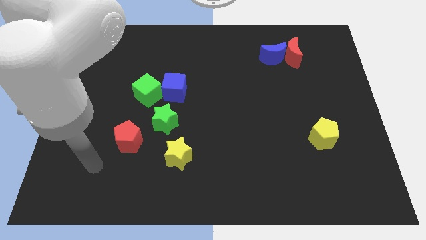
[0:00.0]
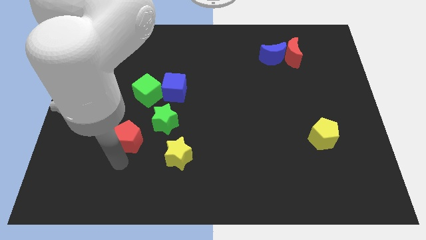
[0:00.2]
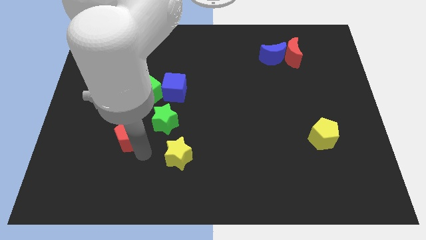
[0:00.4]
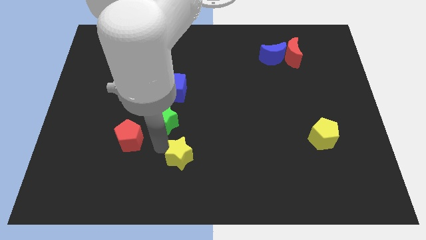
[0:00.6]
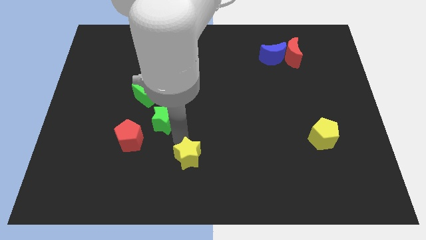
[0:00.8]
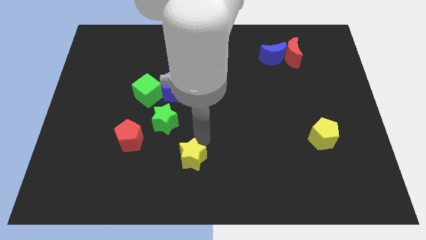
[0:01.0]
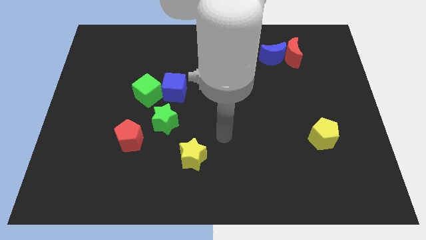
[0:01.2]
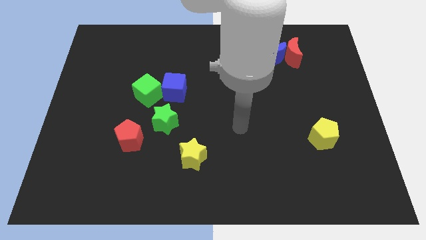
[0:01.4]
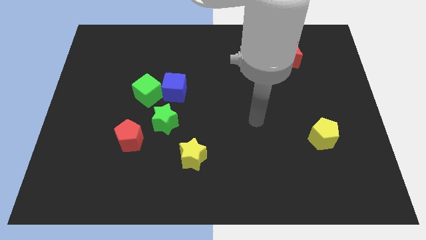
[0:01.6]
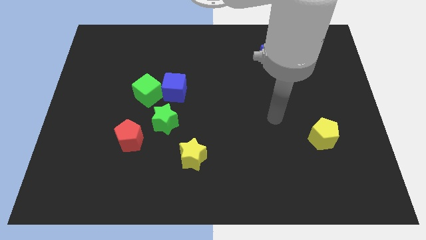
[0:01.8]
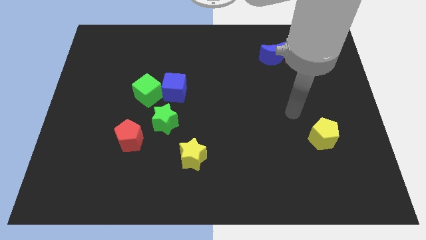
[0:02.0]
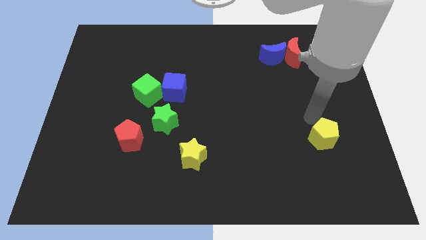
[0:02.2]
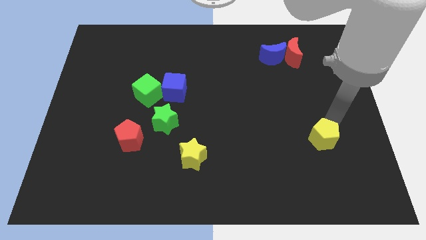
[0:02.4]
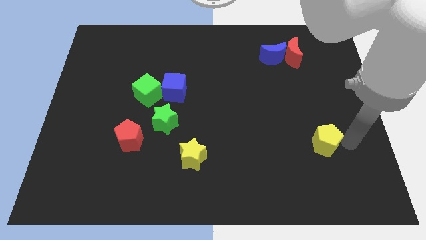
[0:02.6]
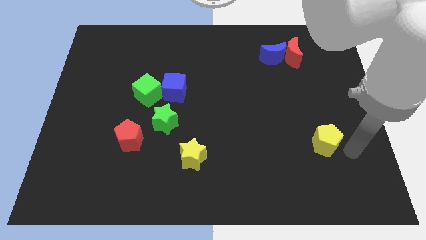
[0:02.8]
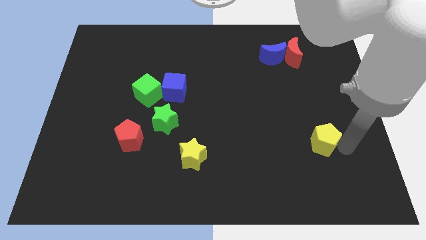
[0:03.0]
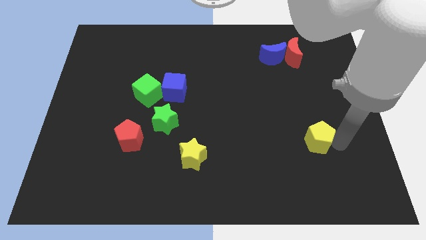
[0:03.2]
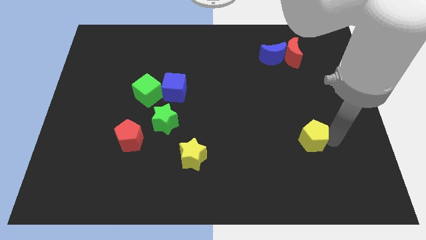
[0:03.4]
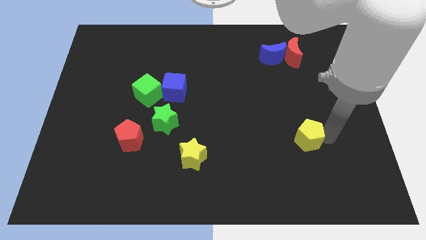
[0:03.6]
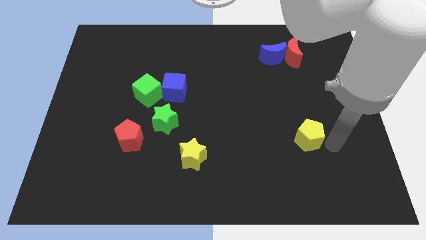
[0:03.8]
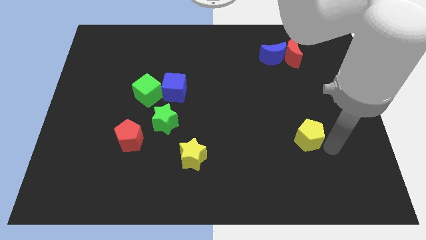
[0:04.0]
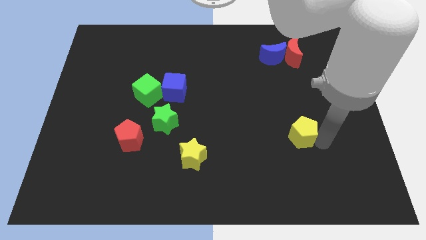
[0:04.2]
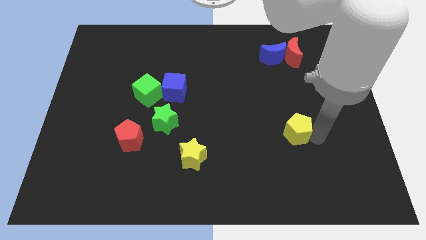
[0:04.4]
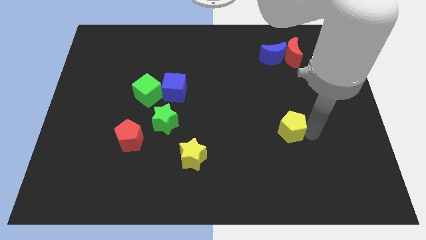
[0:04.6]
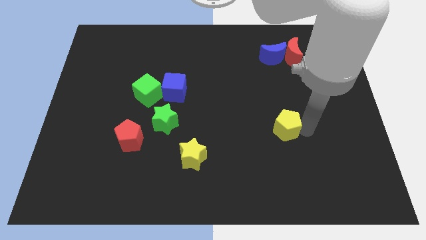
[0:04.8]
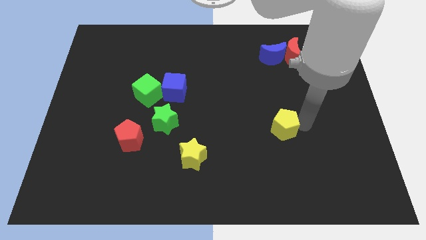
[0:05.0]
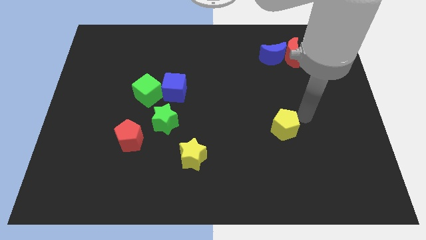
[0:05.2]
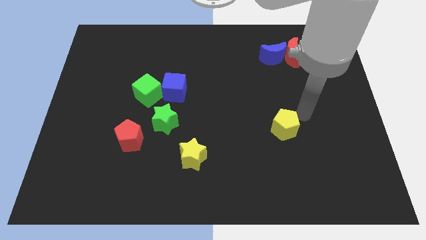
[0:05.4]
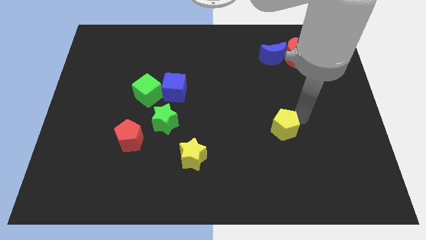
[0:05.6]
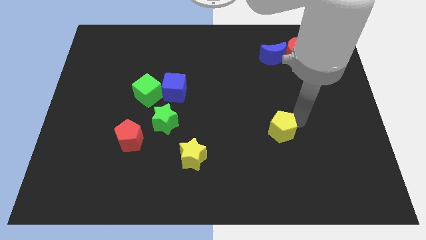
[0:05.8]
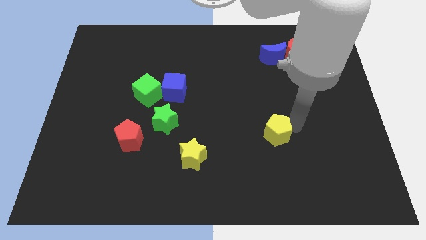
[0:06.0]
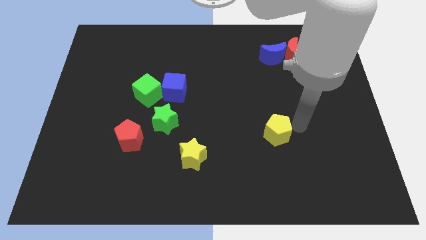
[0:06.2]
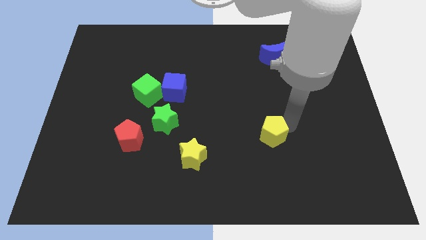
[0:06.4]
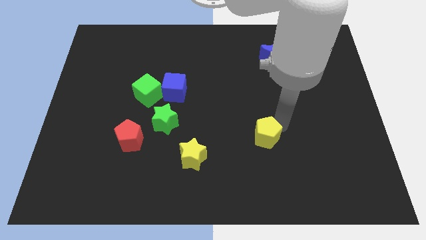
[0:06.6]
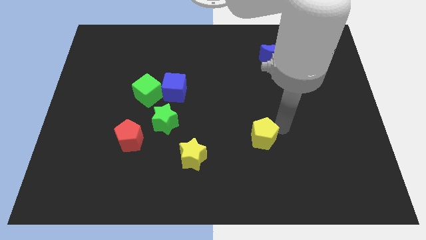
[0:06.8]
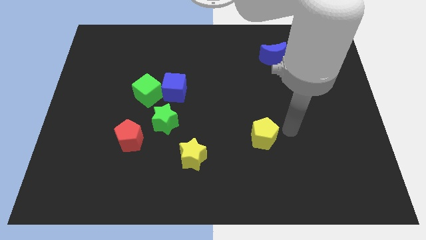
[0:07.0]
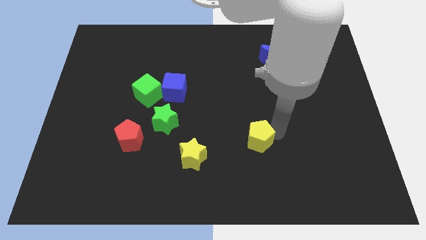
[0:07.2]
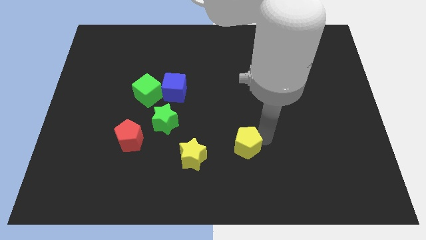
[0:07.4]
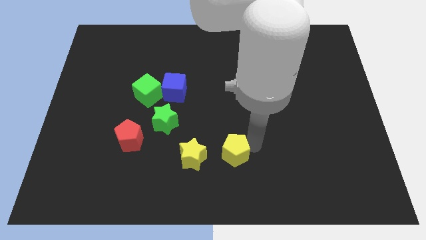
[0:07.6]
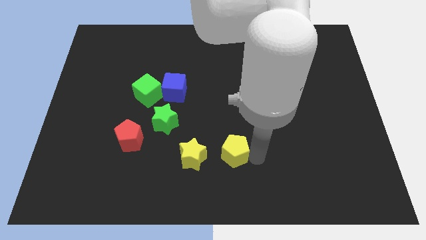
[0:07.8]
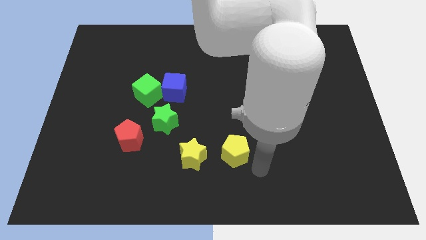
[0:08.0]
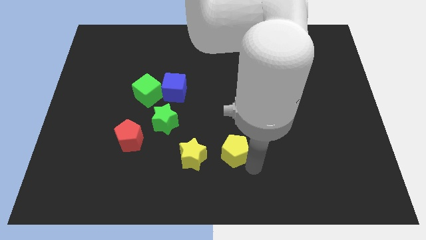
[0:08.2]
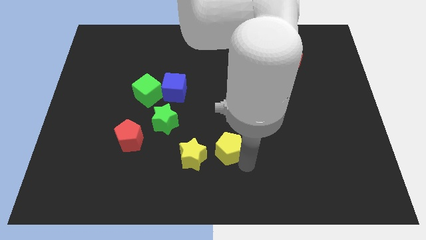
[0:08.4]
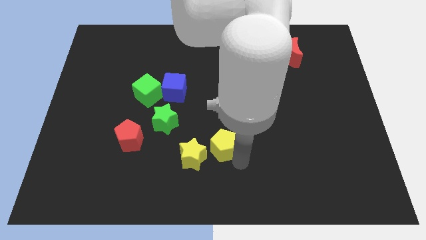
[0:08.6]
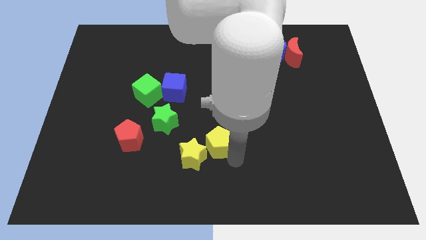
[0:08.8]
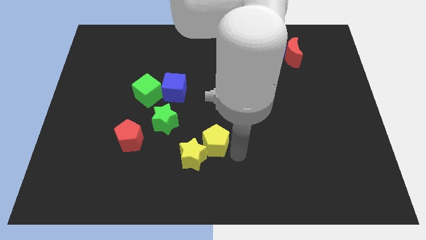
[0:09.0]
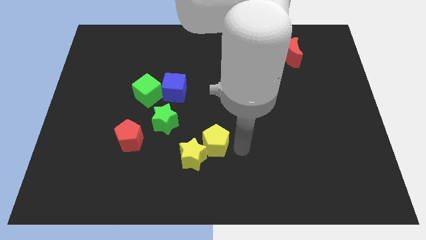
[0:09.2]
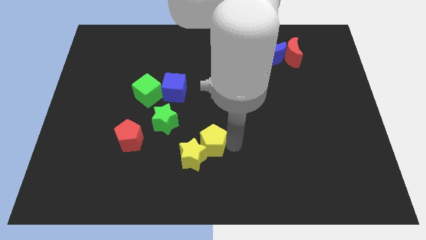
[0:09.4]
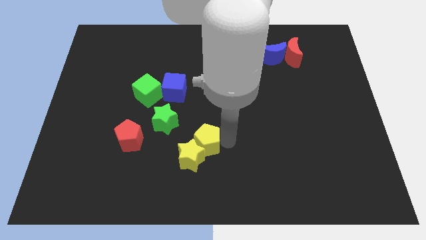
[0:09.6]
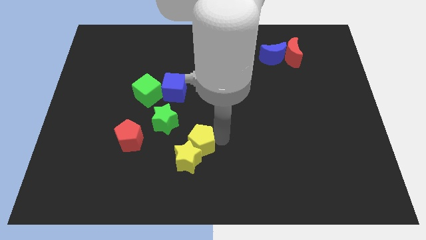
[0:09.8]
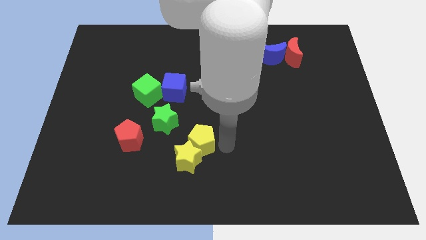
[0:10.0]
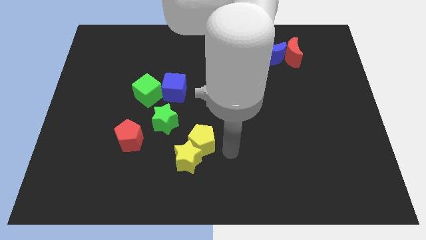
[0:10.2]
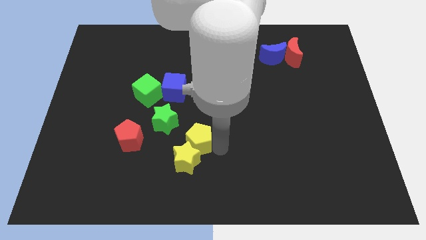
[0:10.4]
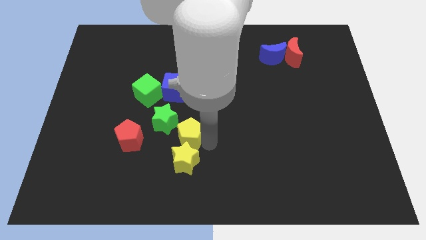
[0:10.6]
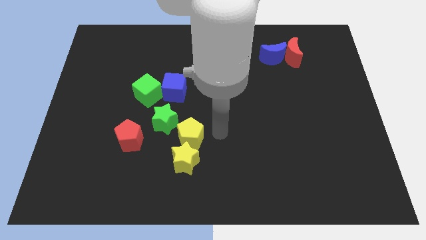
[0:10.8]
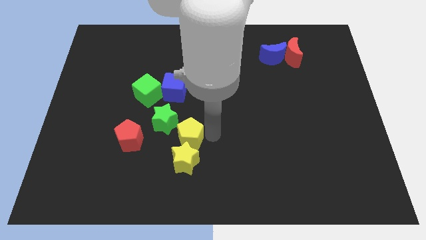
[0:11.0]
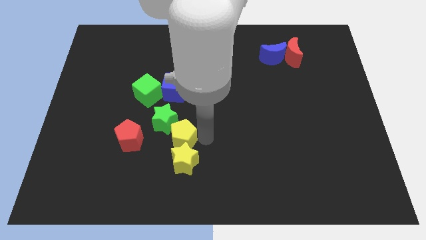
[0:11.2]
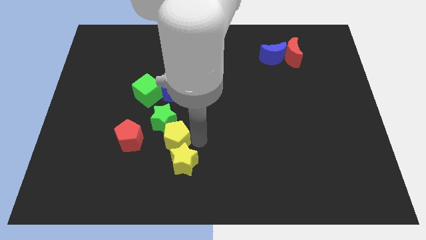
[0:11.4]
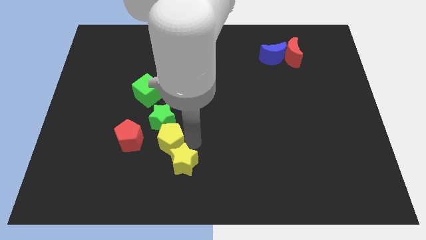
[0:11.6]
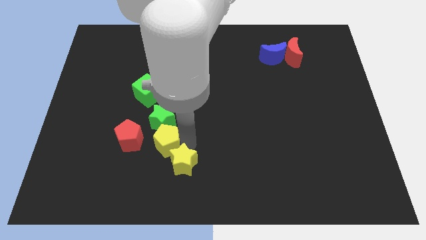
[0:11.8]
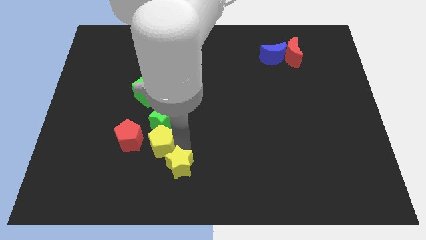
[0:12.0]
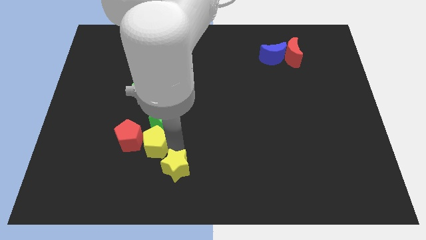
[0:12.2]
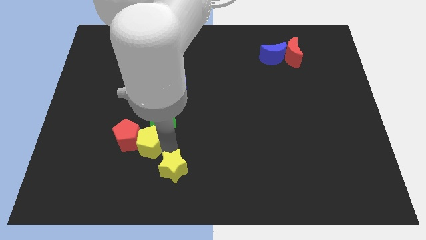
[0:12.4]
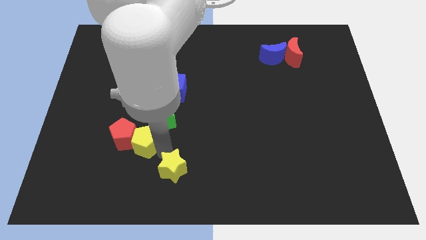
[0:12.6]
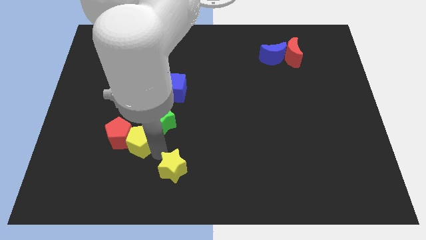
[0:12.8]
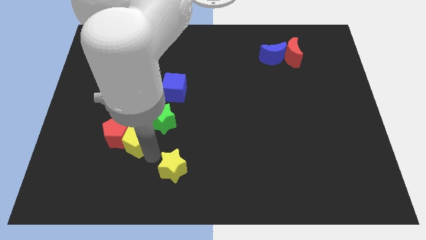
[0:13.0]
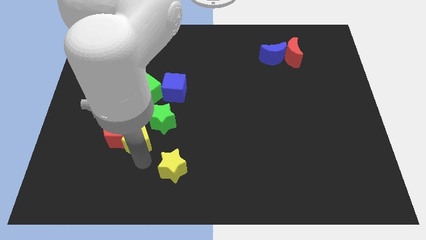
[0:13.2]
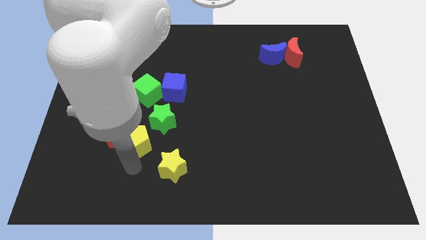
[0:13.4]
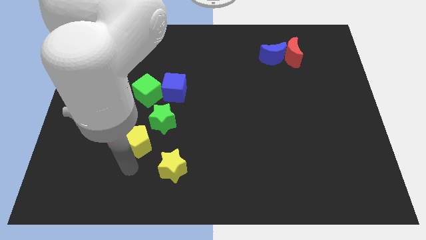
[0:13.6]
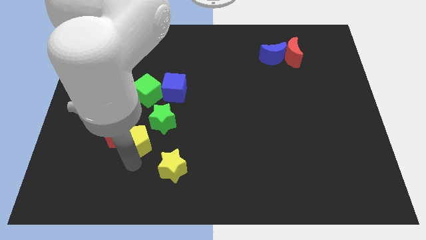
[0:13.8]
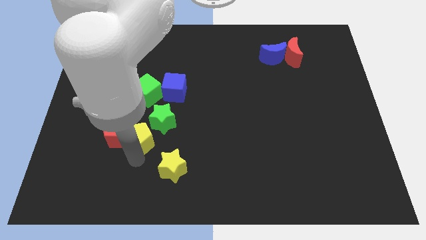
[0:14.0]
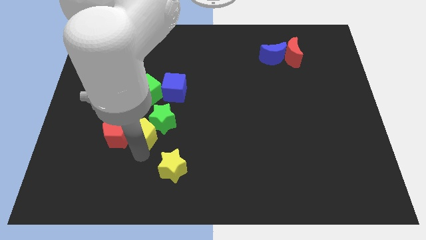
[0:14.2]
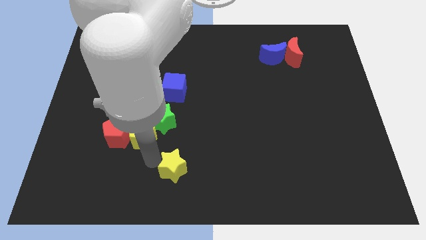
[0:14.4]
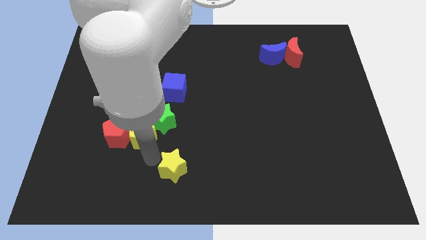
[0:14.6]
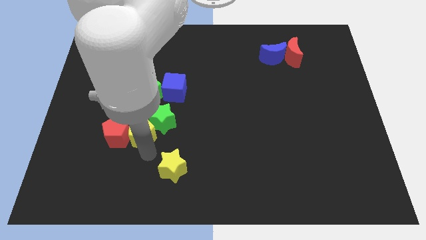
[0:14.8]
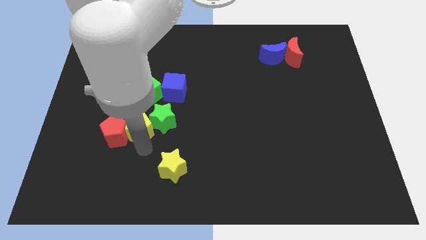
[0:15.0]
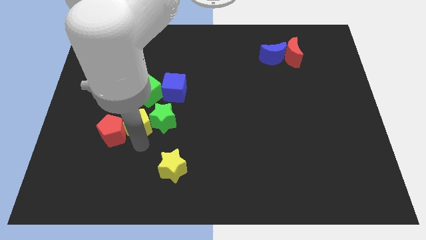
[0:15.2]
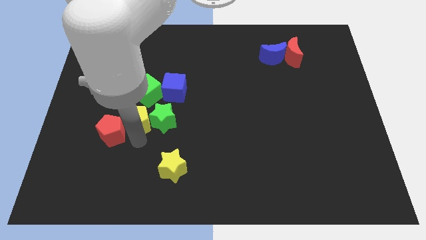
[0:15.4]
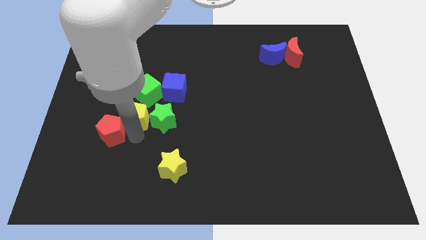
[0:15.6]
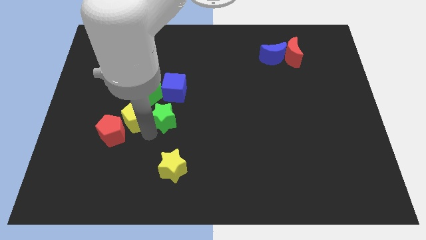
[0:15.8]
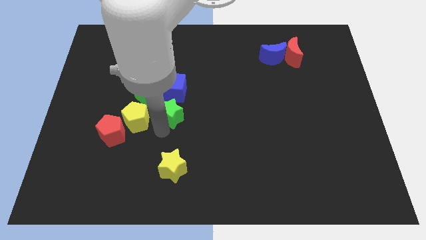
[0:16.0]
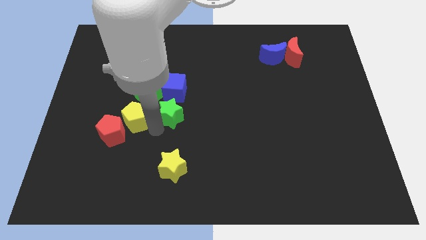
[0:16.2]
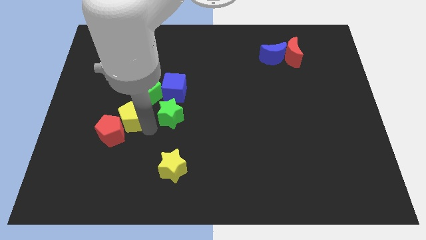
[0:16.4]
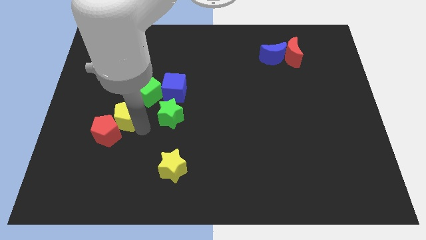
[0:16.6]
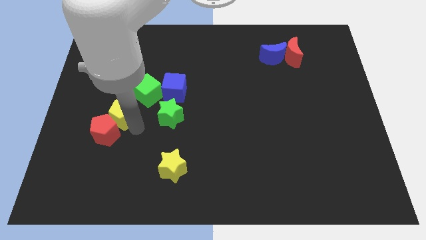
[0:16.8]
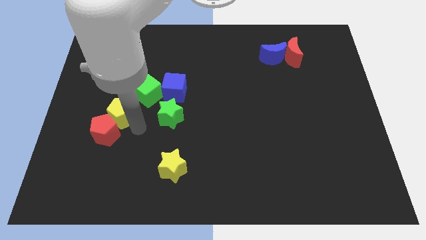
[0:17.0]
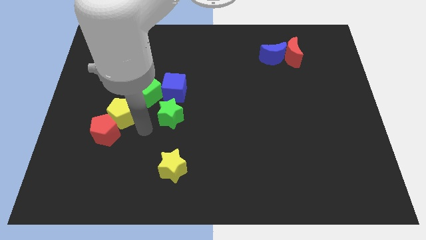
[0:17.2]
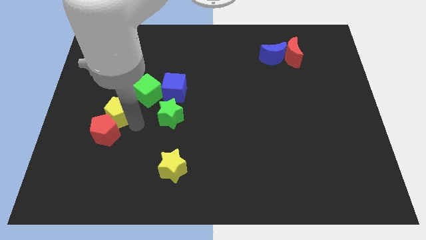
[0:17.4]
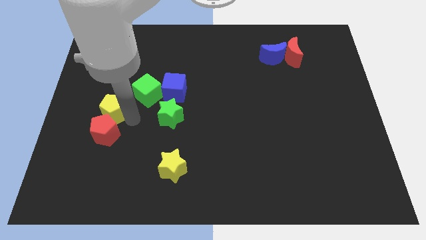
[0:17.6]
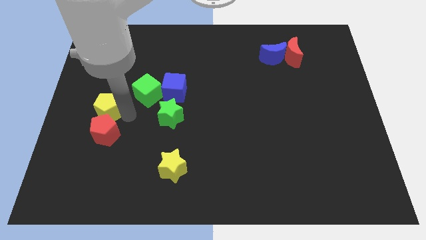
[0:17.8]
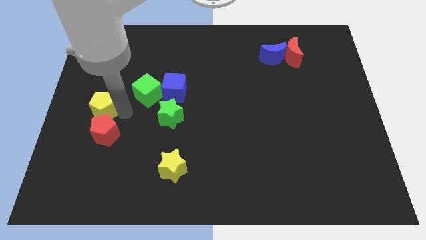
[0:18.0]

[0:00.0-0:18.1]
slide the yellow pentagon to the left side of the board
